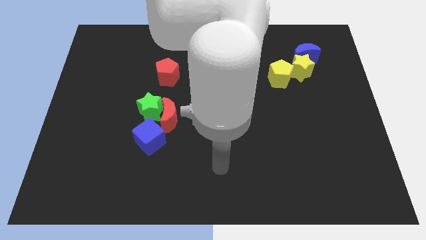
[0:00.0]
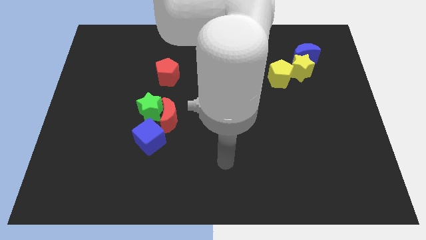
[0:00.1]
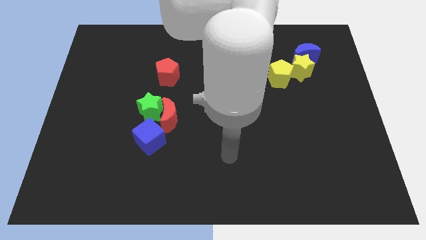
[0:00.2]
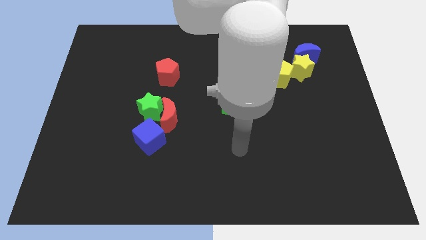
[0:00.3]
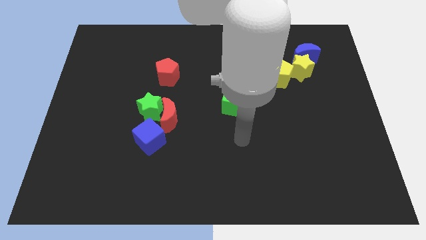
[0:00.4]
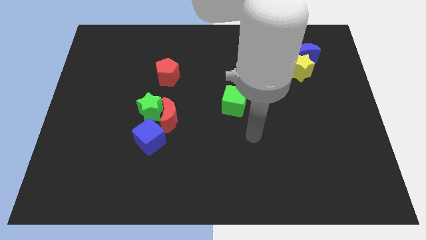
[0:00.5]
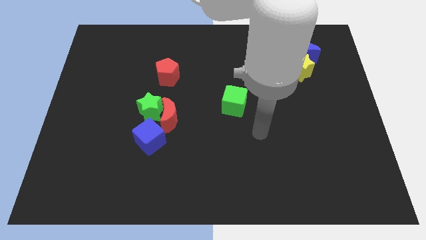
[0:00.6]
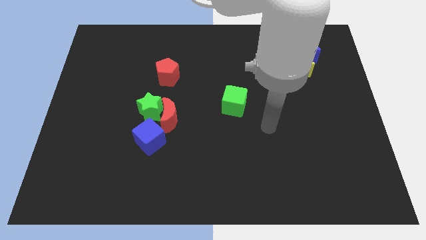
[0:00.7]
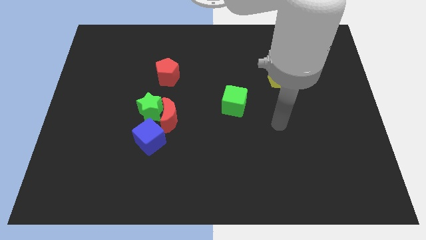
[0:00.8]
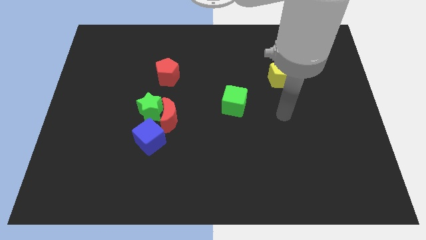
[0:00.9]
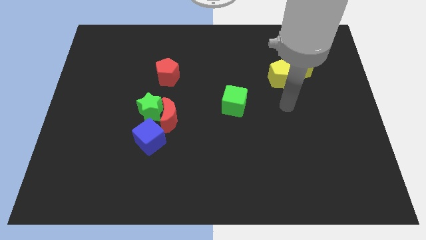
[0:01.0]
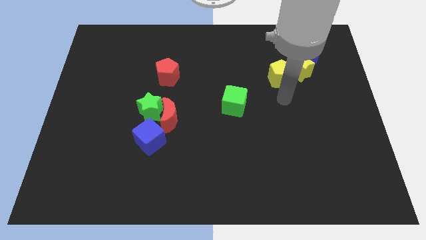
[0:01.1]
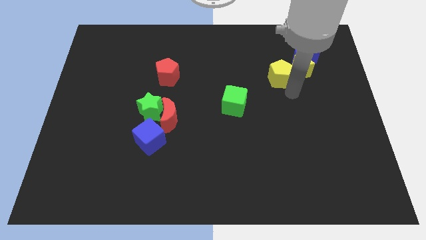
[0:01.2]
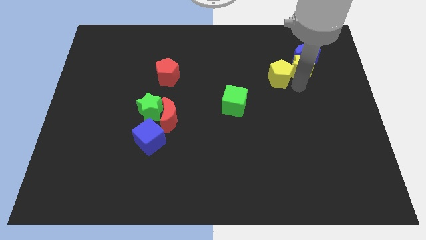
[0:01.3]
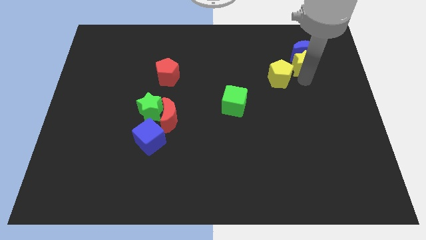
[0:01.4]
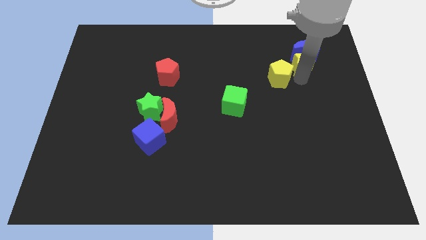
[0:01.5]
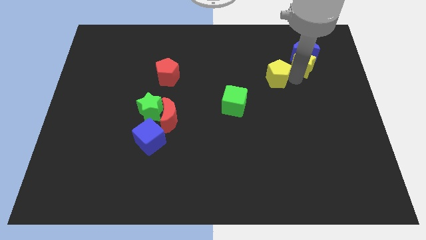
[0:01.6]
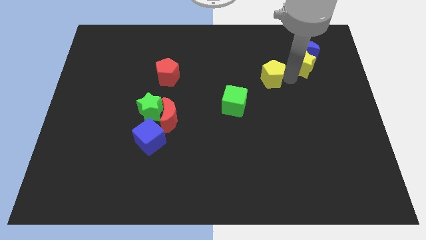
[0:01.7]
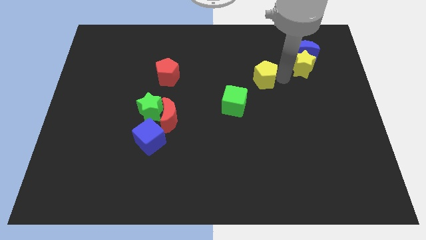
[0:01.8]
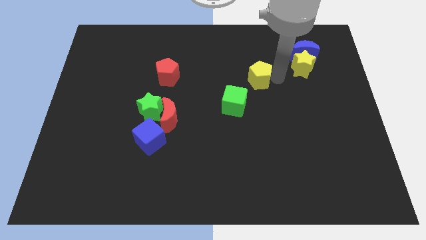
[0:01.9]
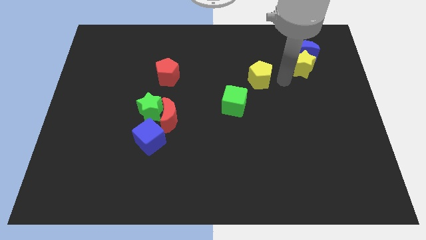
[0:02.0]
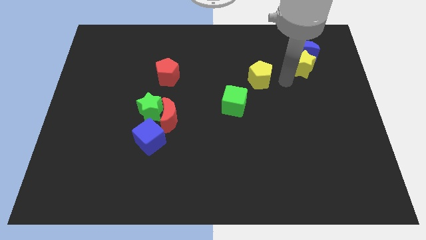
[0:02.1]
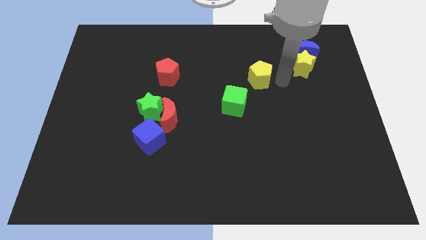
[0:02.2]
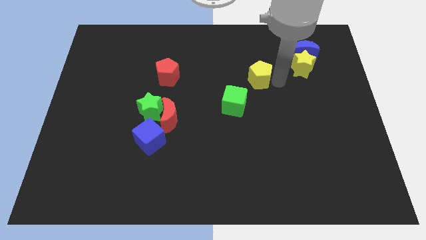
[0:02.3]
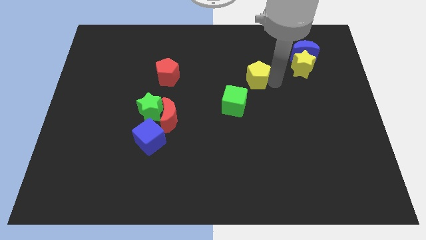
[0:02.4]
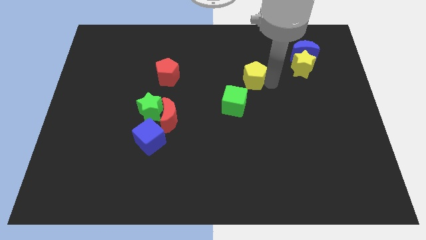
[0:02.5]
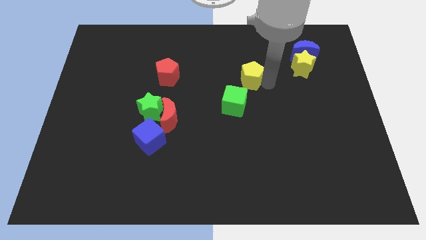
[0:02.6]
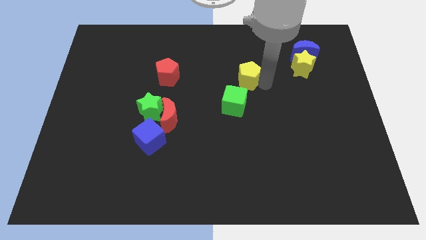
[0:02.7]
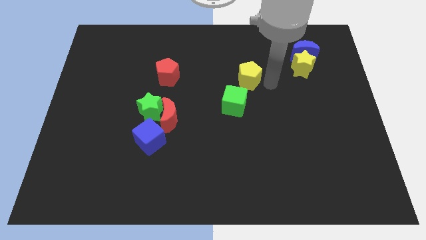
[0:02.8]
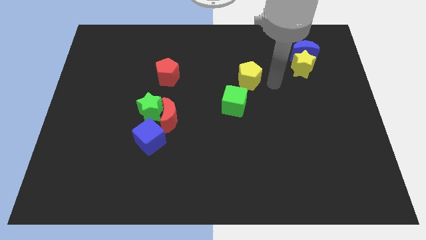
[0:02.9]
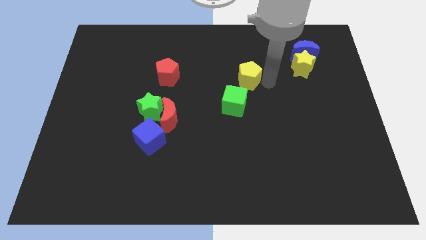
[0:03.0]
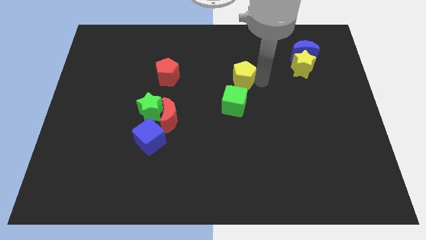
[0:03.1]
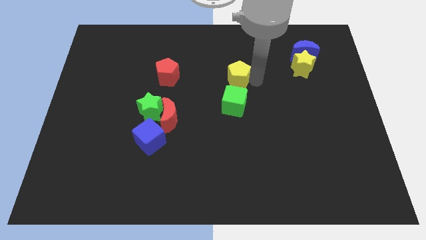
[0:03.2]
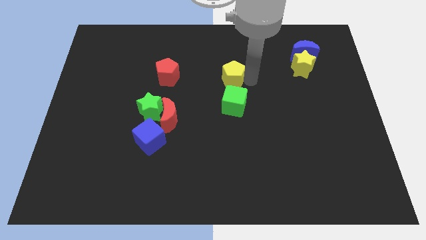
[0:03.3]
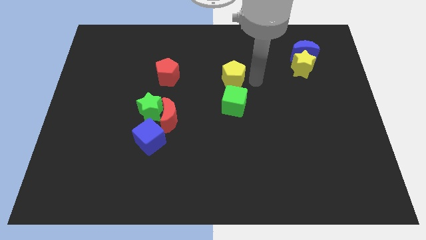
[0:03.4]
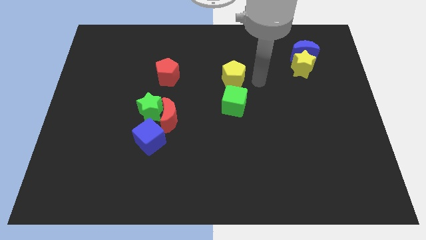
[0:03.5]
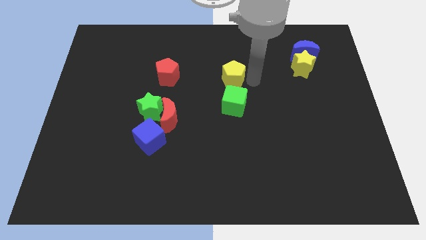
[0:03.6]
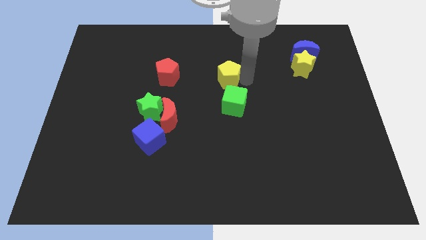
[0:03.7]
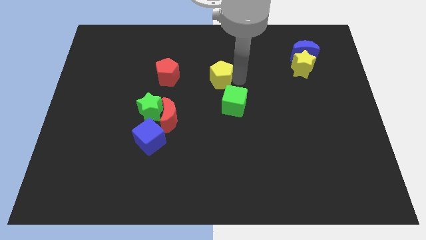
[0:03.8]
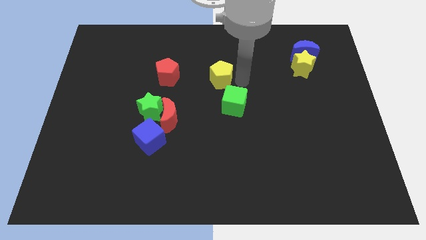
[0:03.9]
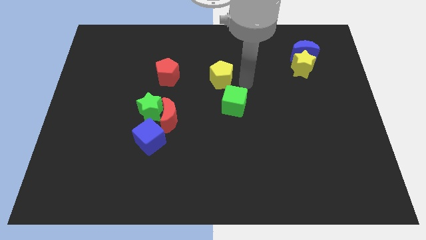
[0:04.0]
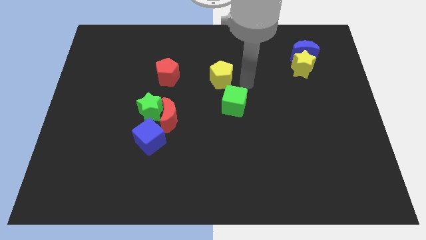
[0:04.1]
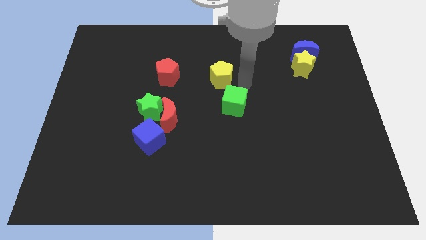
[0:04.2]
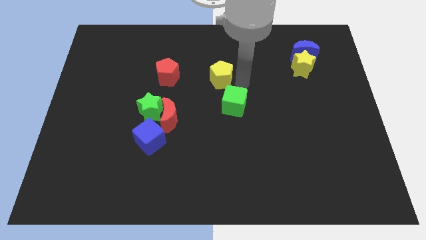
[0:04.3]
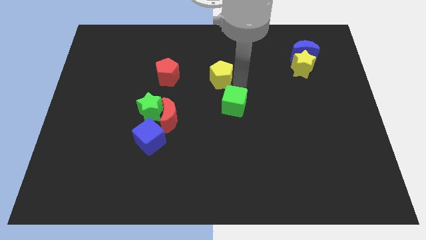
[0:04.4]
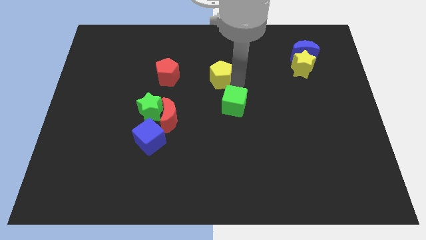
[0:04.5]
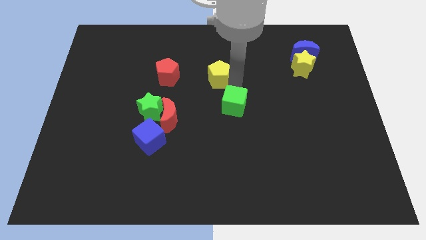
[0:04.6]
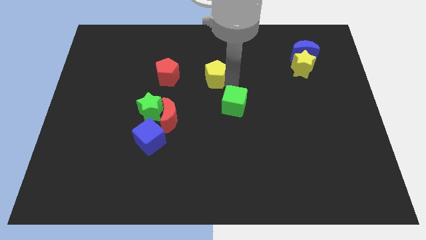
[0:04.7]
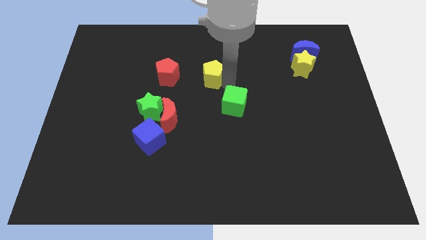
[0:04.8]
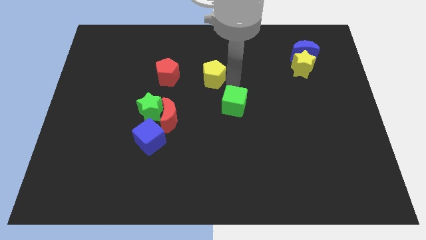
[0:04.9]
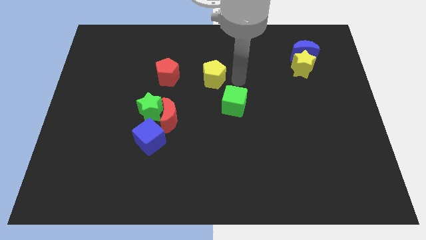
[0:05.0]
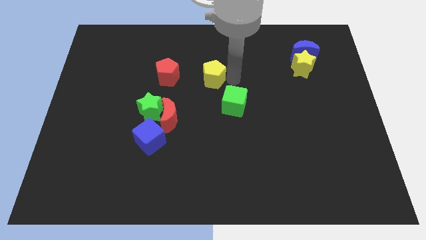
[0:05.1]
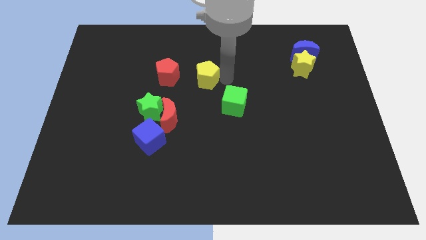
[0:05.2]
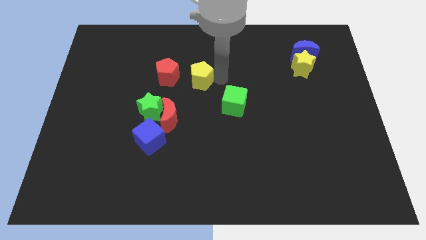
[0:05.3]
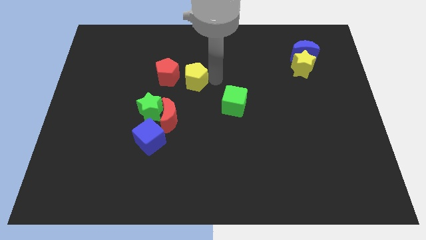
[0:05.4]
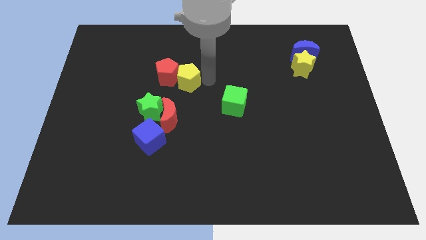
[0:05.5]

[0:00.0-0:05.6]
move the yellow pentagon close to the red pentagon

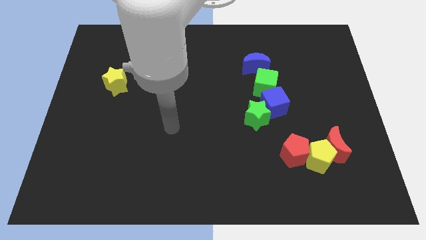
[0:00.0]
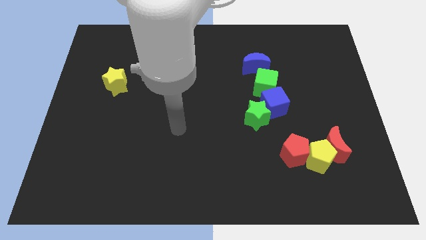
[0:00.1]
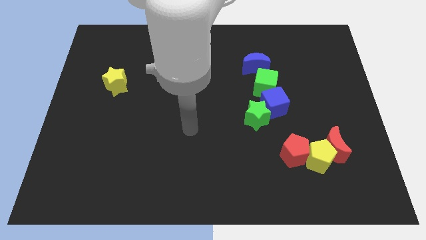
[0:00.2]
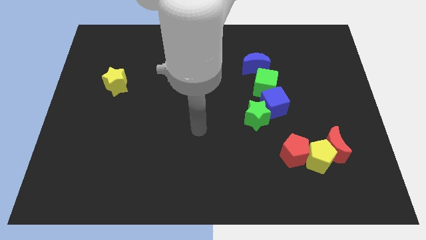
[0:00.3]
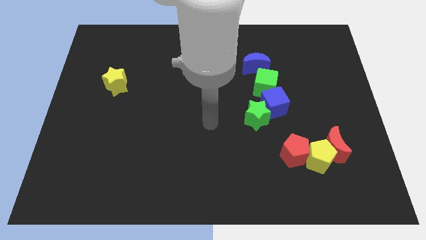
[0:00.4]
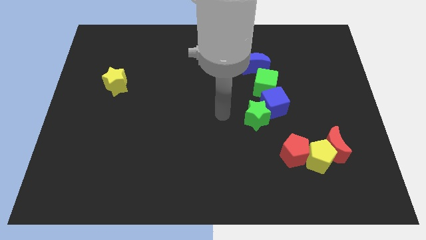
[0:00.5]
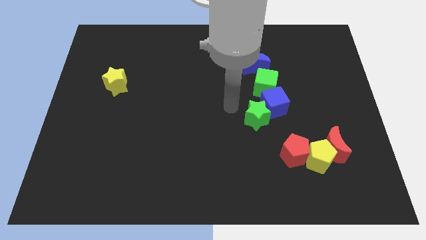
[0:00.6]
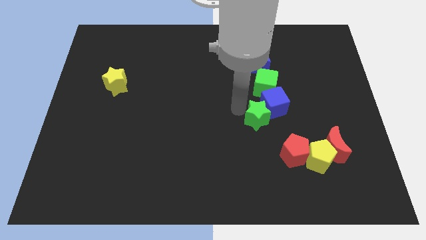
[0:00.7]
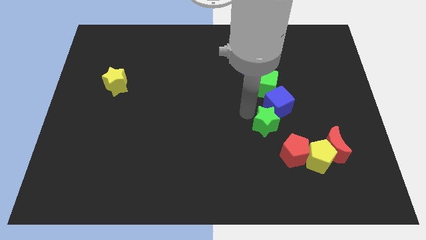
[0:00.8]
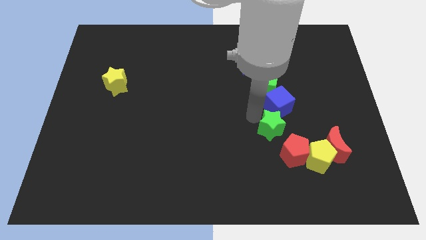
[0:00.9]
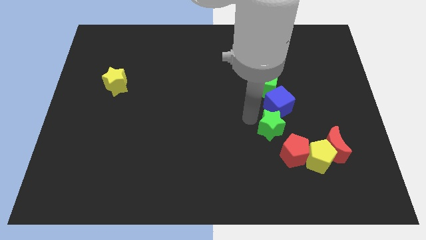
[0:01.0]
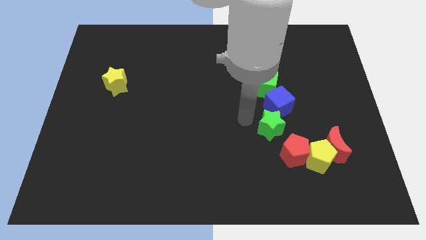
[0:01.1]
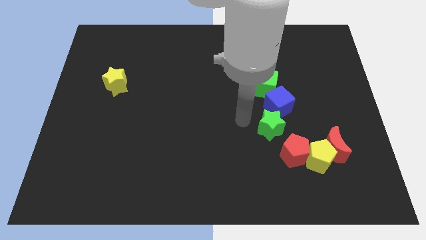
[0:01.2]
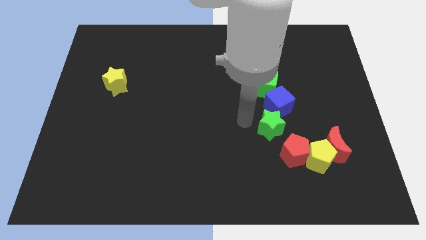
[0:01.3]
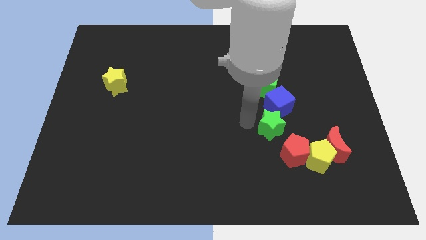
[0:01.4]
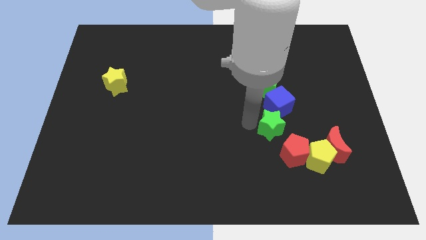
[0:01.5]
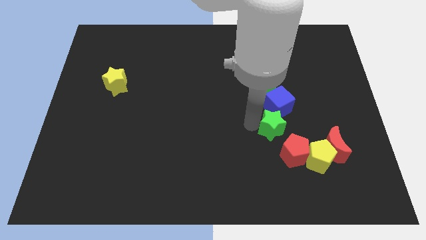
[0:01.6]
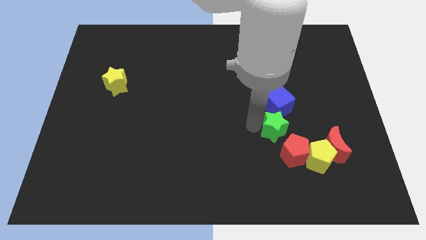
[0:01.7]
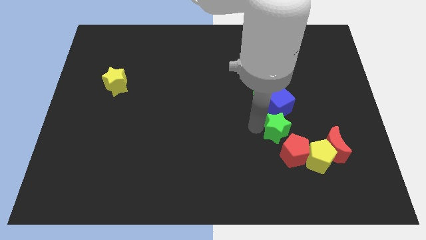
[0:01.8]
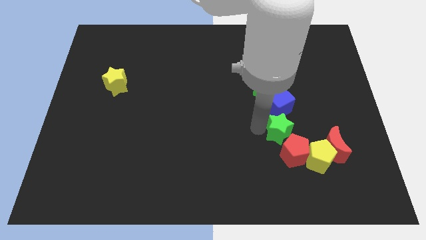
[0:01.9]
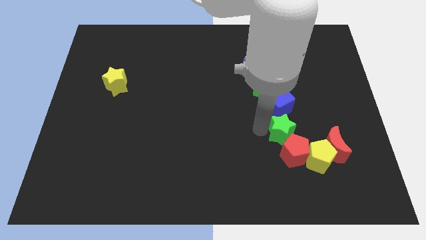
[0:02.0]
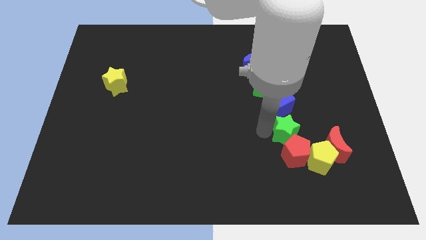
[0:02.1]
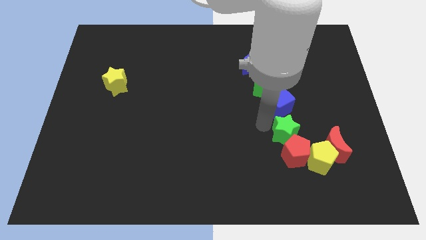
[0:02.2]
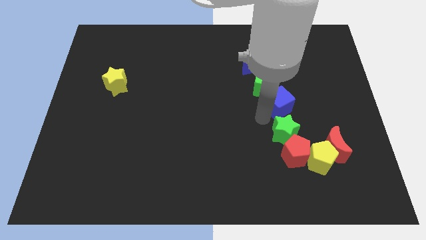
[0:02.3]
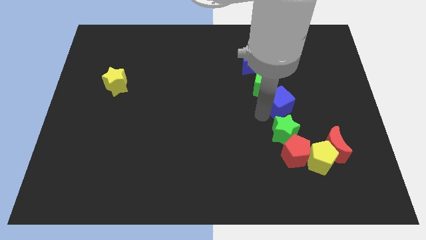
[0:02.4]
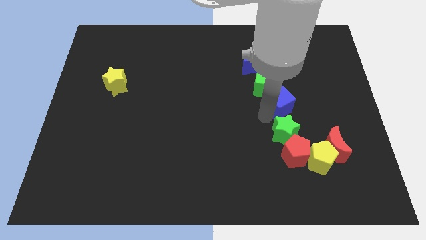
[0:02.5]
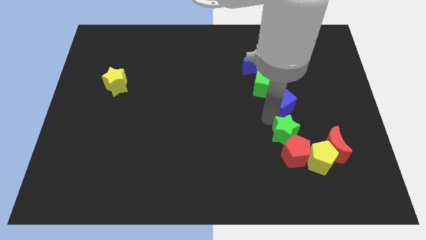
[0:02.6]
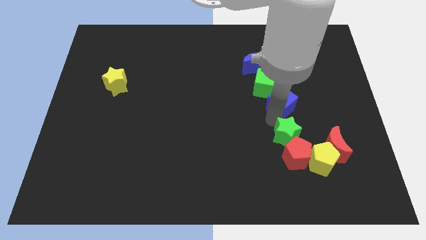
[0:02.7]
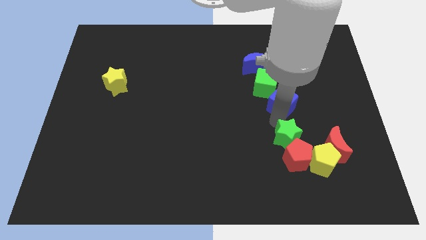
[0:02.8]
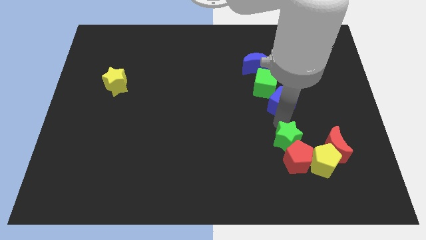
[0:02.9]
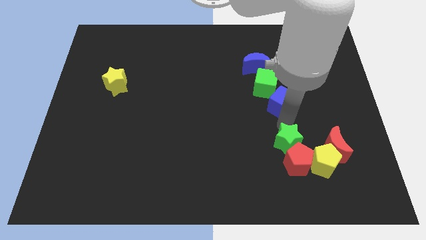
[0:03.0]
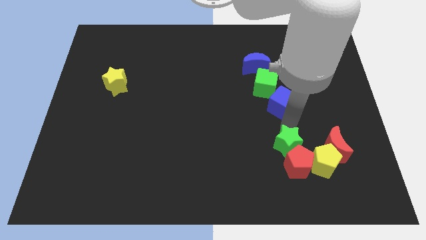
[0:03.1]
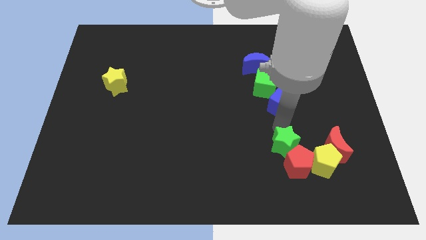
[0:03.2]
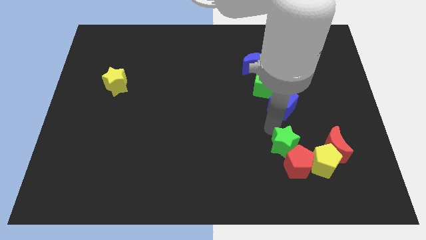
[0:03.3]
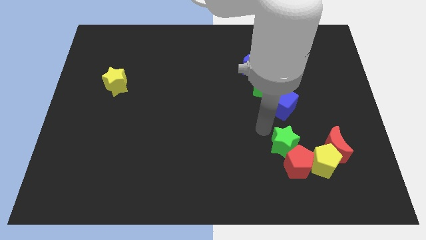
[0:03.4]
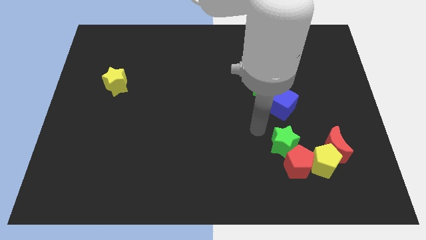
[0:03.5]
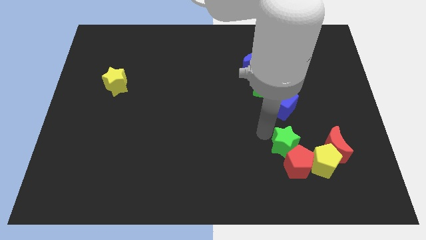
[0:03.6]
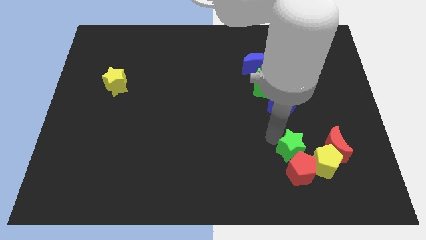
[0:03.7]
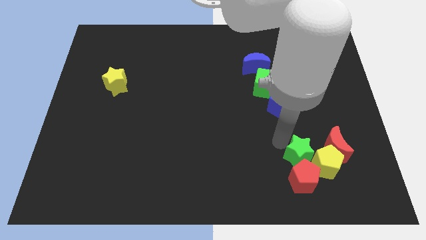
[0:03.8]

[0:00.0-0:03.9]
push the green star close to the yellow pentagon
